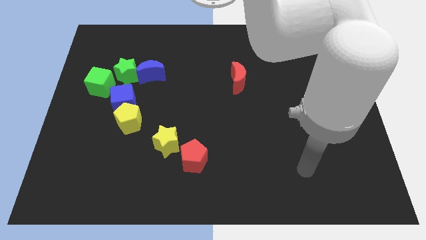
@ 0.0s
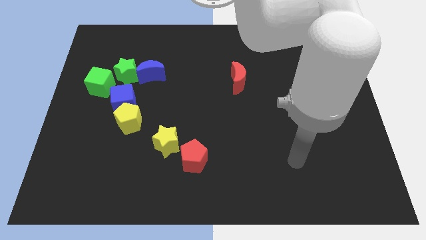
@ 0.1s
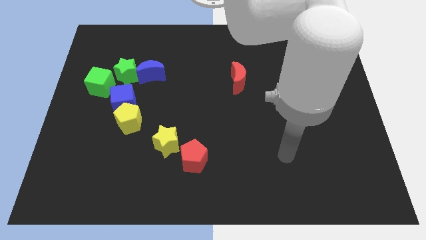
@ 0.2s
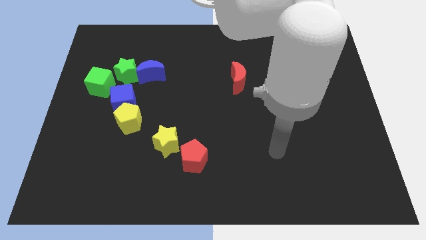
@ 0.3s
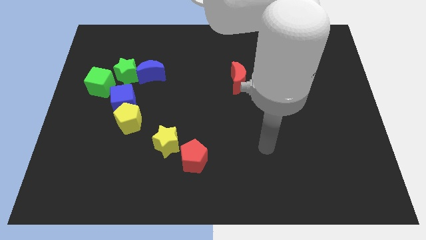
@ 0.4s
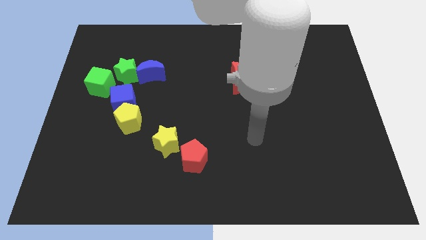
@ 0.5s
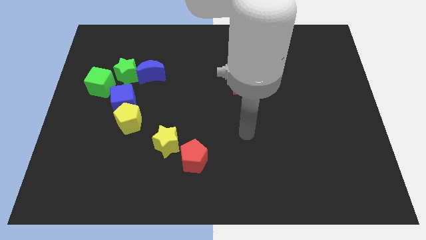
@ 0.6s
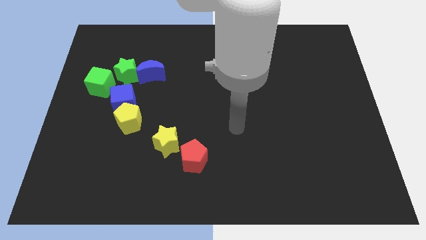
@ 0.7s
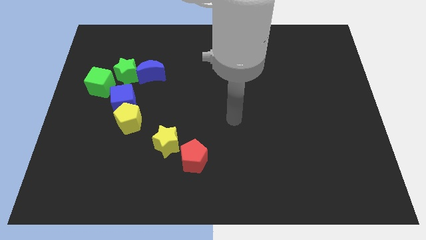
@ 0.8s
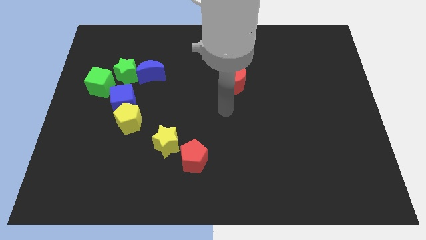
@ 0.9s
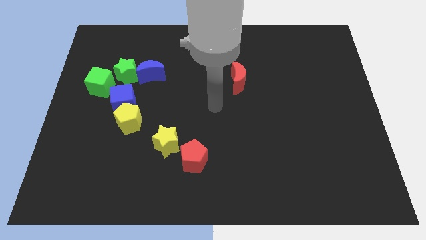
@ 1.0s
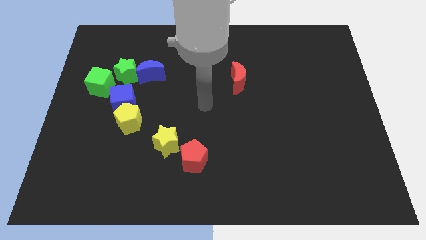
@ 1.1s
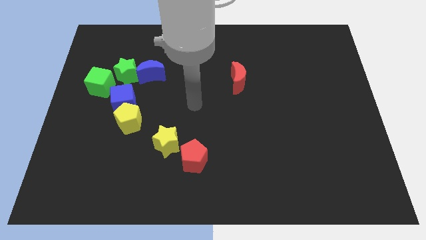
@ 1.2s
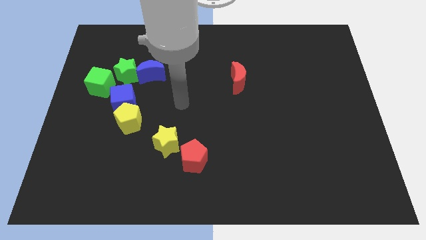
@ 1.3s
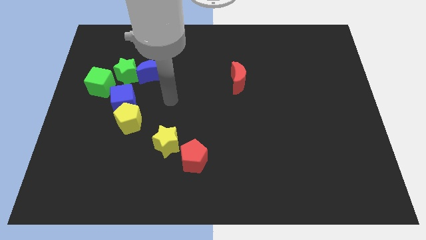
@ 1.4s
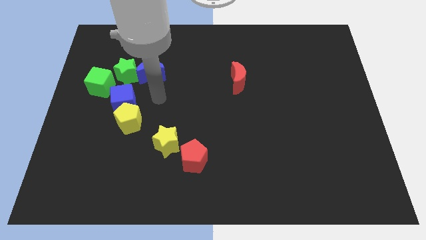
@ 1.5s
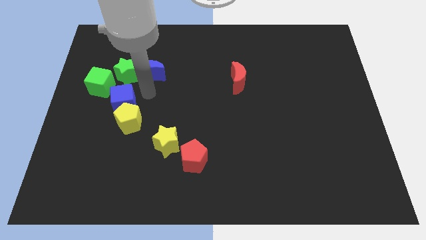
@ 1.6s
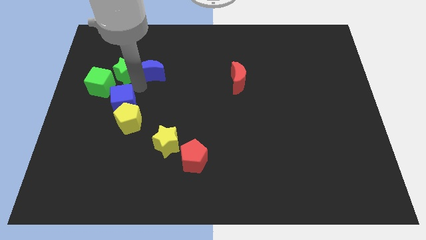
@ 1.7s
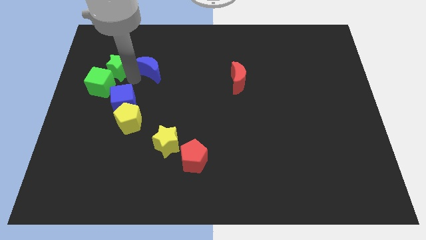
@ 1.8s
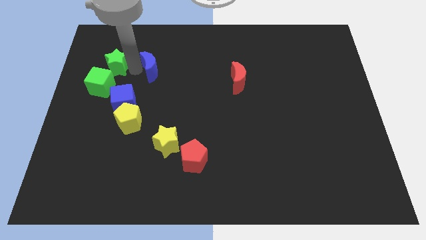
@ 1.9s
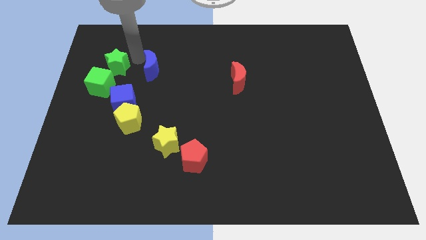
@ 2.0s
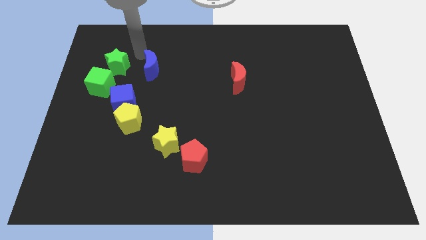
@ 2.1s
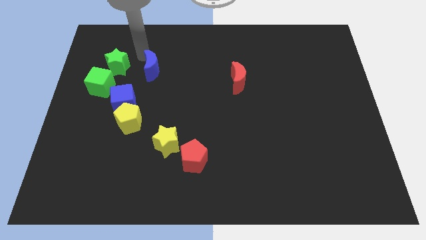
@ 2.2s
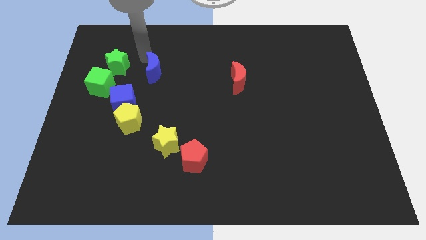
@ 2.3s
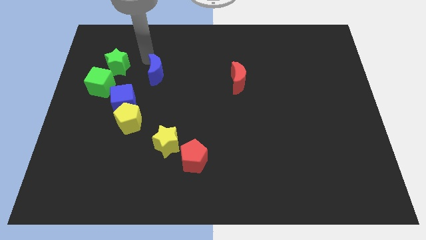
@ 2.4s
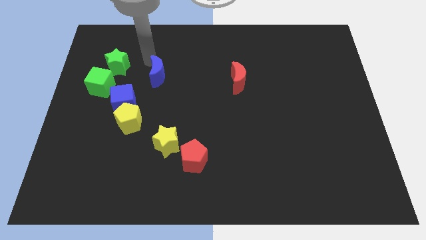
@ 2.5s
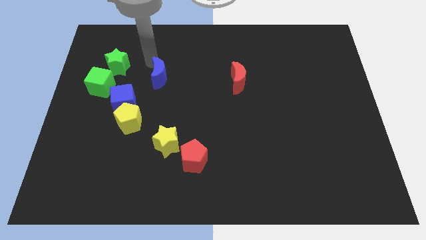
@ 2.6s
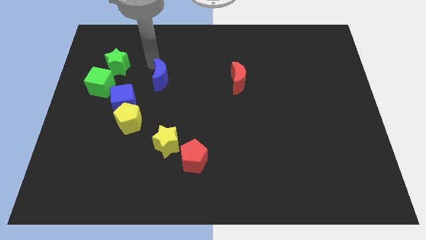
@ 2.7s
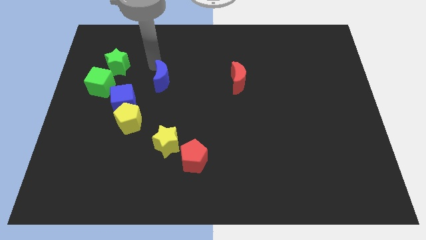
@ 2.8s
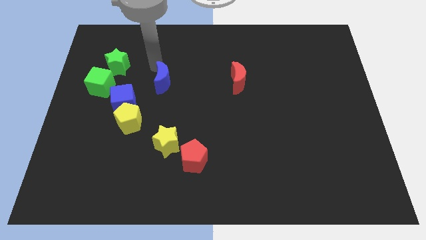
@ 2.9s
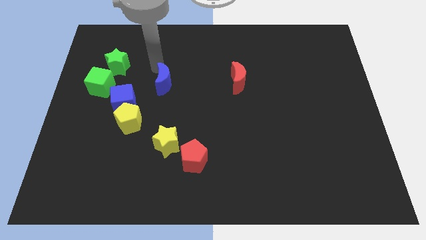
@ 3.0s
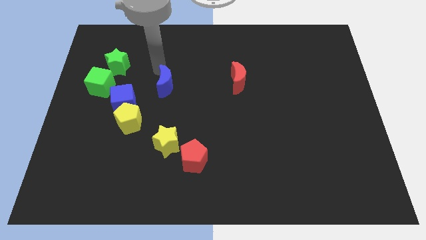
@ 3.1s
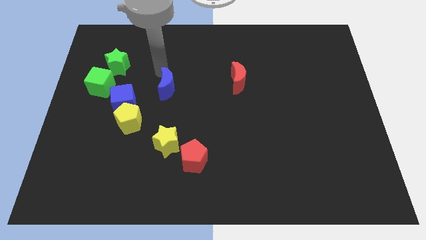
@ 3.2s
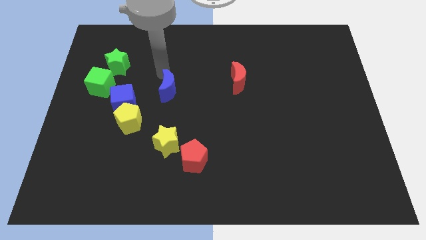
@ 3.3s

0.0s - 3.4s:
move the blue moon downwards and then to the right a little

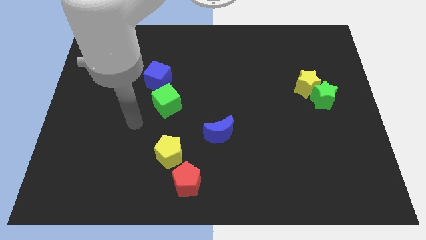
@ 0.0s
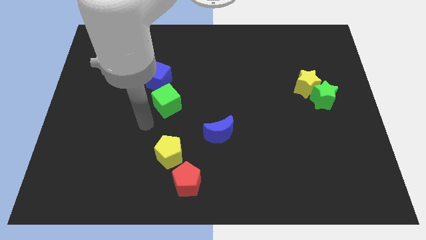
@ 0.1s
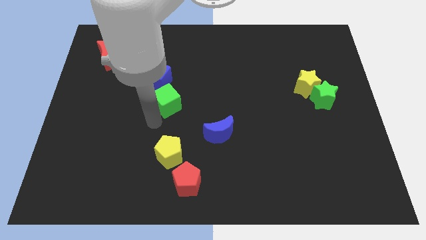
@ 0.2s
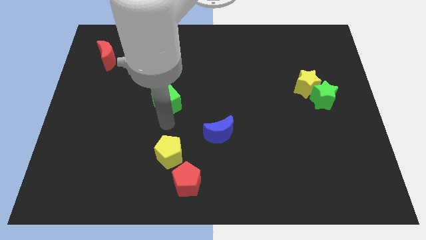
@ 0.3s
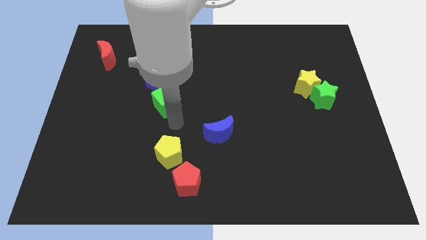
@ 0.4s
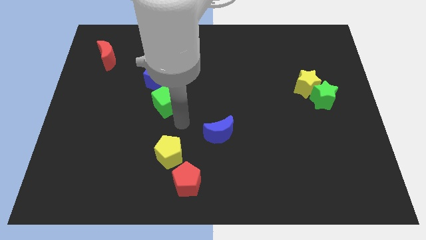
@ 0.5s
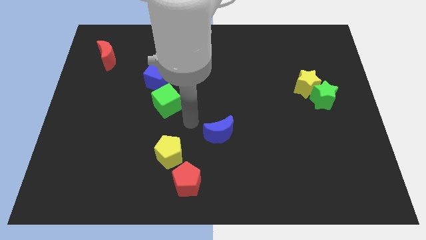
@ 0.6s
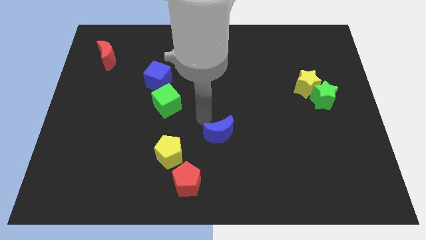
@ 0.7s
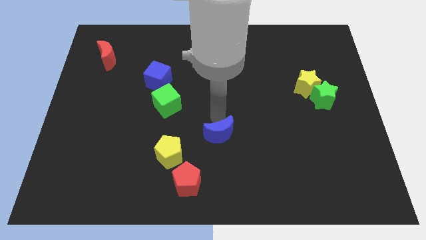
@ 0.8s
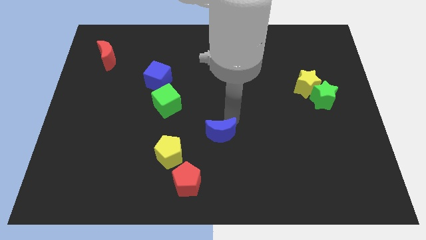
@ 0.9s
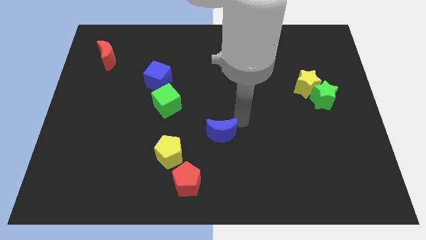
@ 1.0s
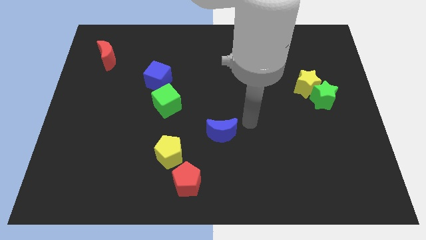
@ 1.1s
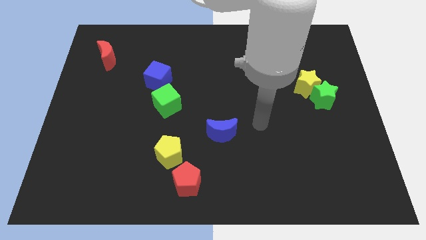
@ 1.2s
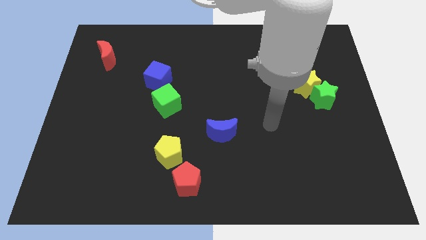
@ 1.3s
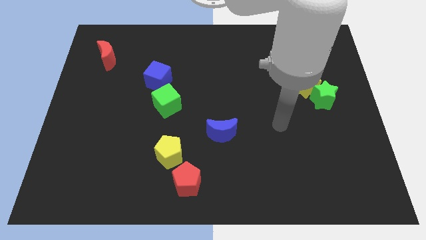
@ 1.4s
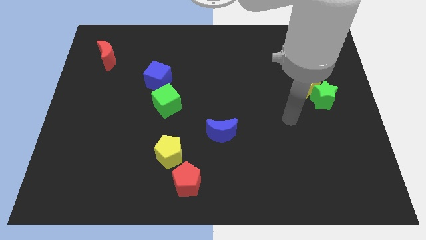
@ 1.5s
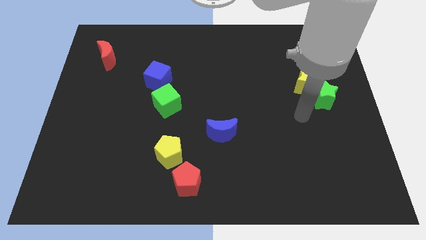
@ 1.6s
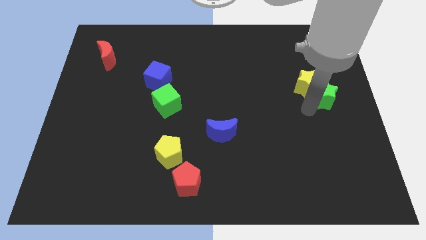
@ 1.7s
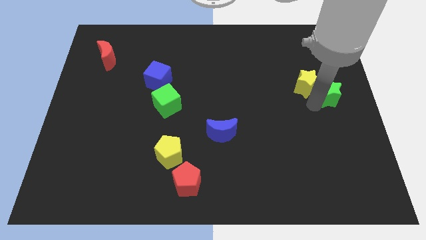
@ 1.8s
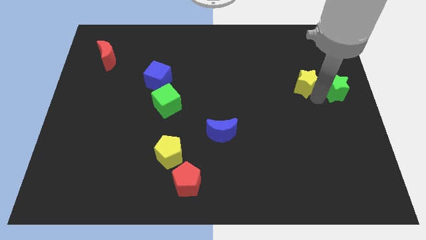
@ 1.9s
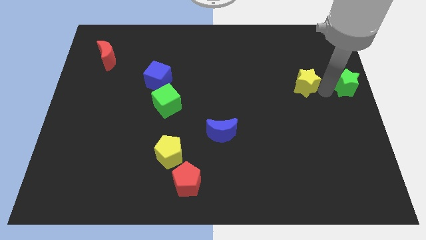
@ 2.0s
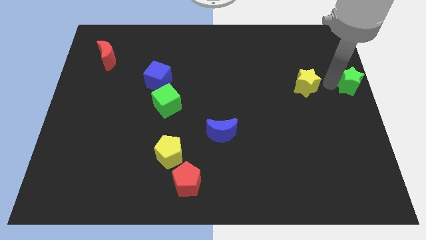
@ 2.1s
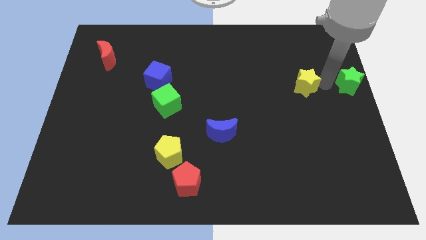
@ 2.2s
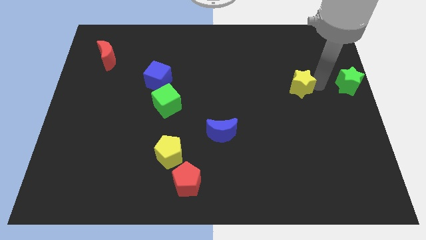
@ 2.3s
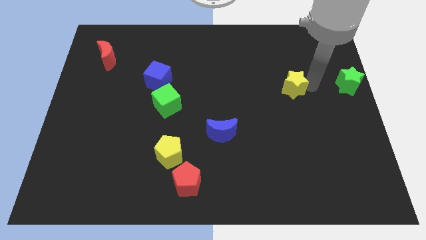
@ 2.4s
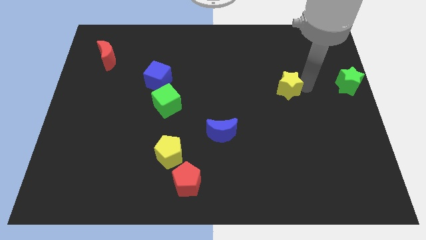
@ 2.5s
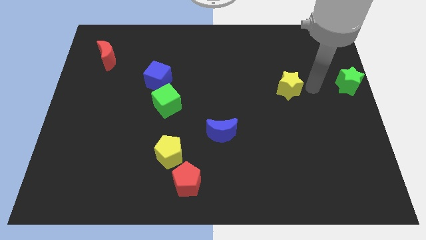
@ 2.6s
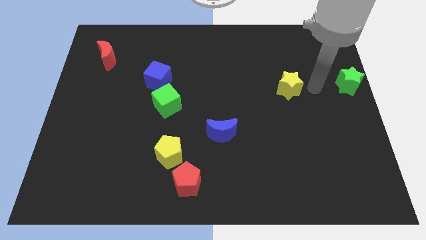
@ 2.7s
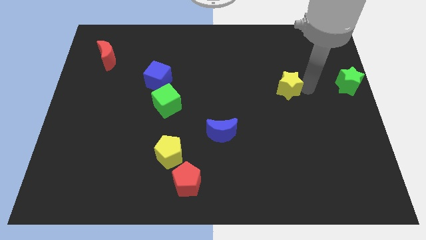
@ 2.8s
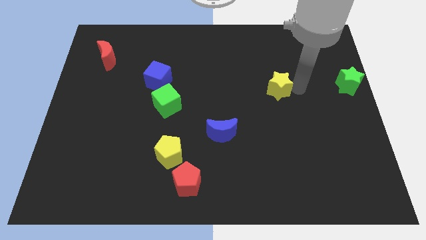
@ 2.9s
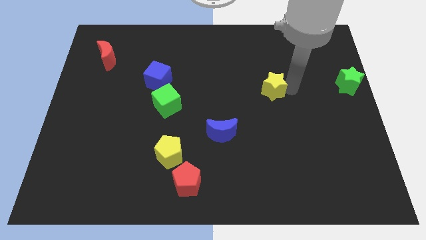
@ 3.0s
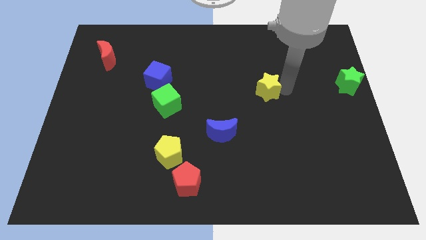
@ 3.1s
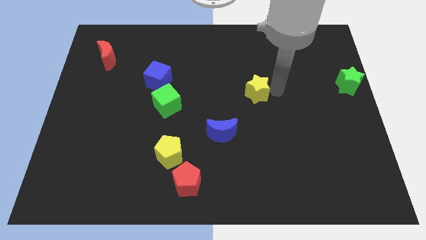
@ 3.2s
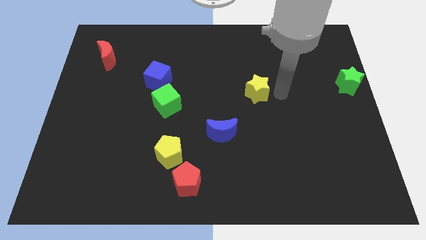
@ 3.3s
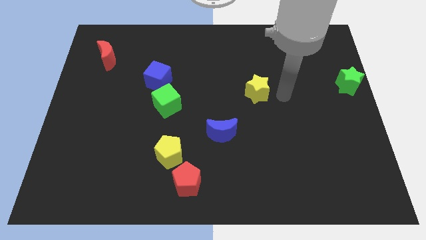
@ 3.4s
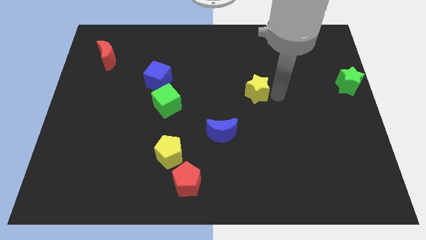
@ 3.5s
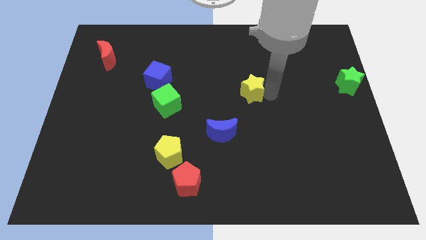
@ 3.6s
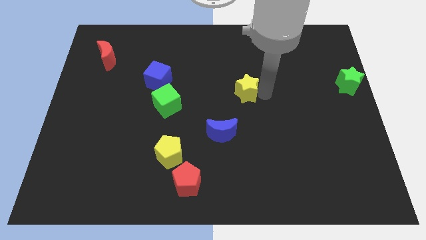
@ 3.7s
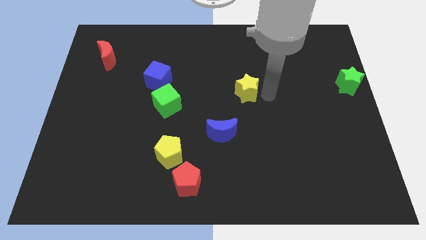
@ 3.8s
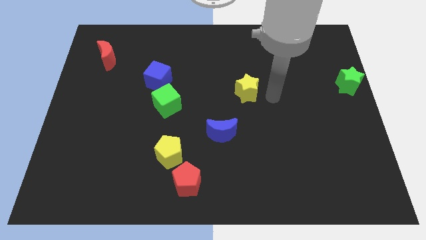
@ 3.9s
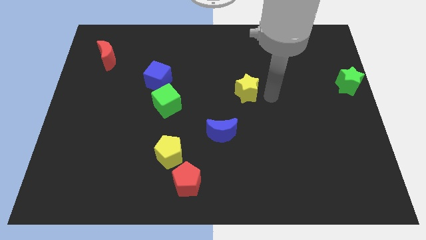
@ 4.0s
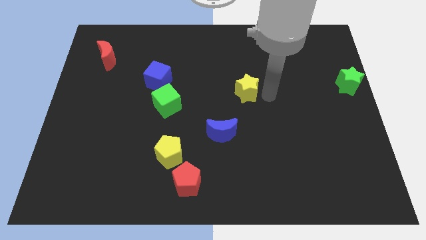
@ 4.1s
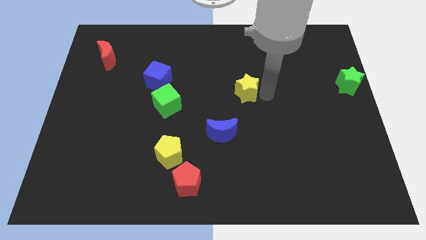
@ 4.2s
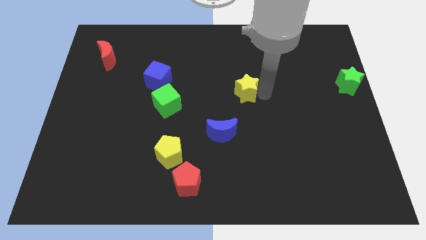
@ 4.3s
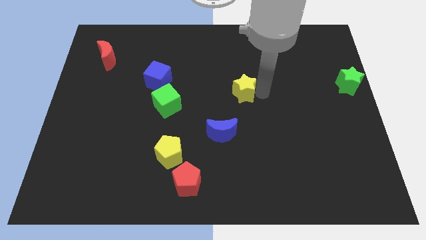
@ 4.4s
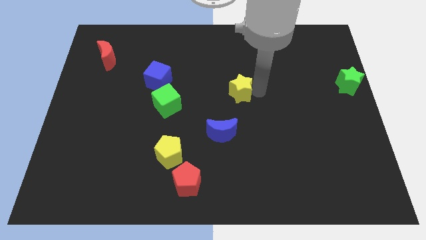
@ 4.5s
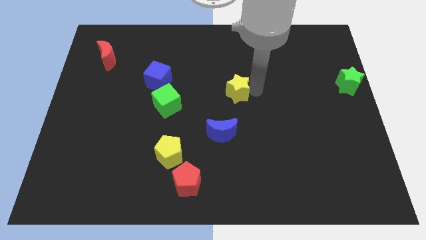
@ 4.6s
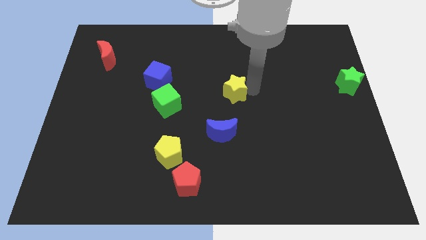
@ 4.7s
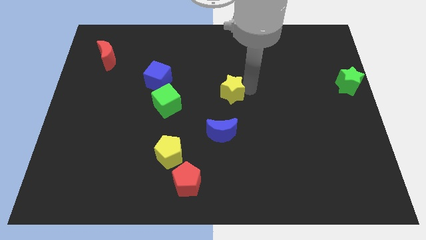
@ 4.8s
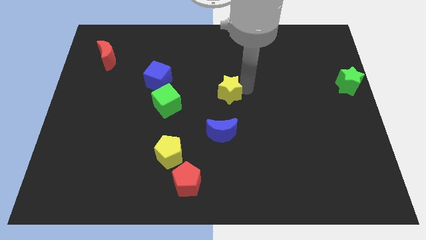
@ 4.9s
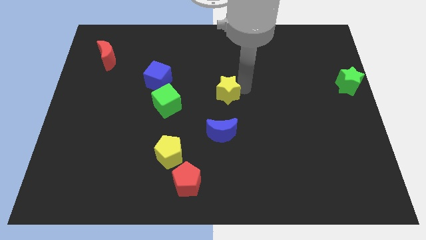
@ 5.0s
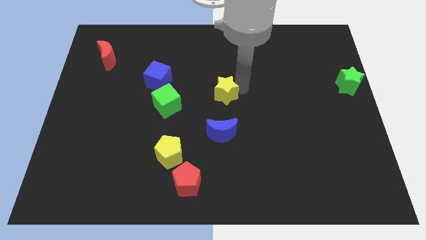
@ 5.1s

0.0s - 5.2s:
slide the yellow star left
